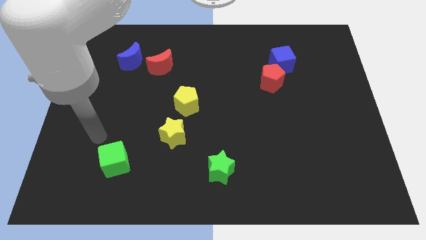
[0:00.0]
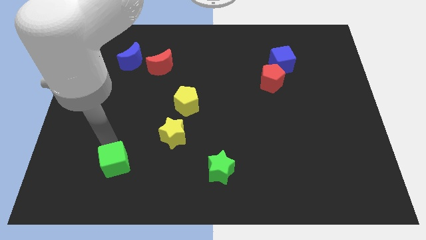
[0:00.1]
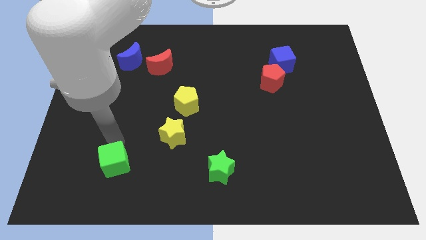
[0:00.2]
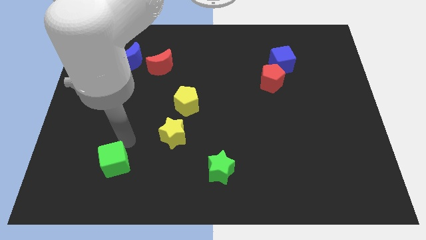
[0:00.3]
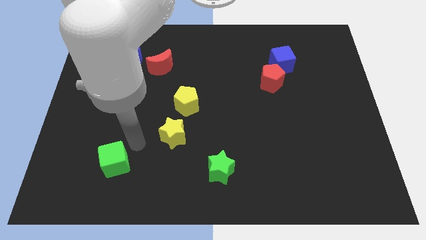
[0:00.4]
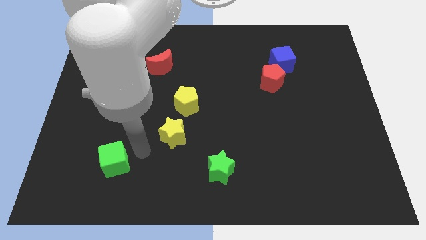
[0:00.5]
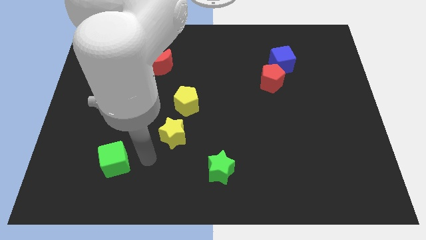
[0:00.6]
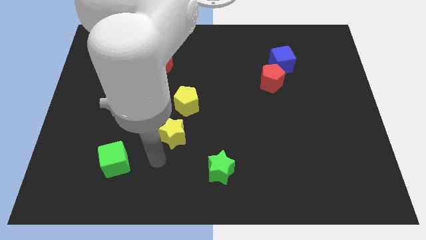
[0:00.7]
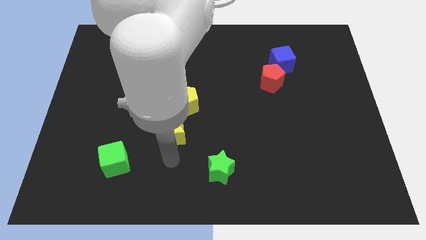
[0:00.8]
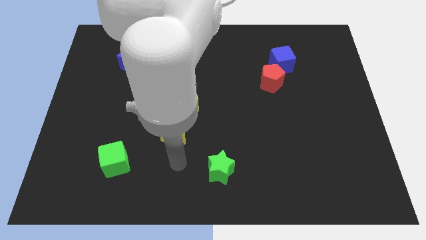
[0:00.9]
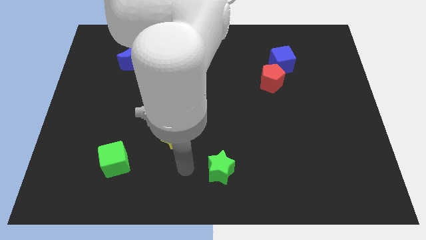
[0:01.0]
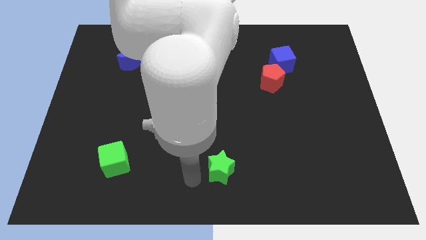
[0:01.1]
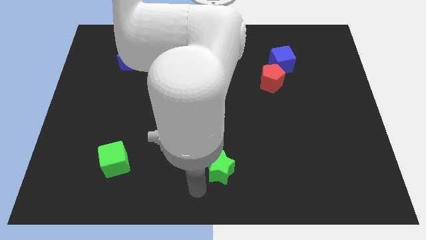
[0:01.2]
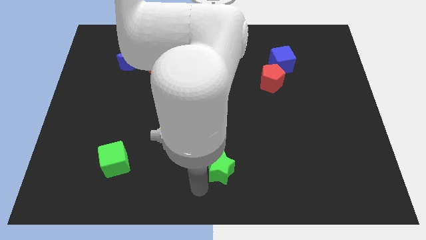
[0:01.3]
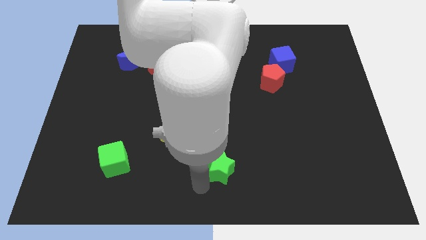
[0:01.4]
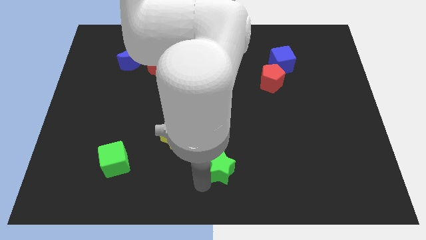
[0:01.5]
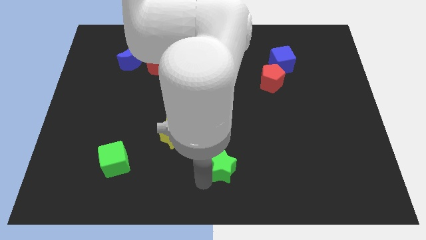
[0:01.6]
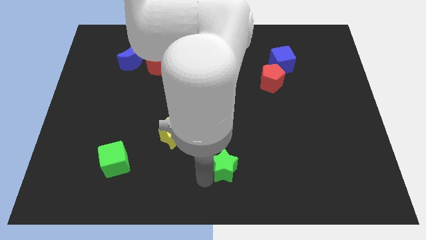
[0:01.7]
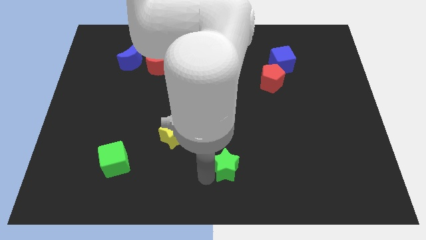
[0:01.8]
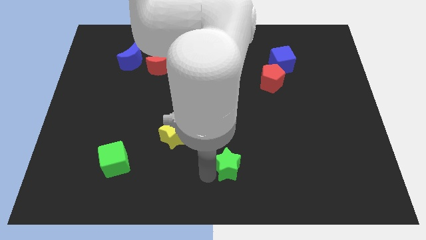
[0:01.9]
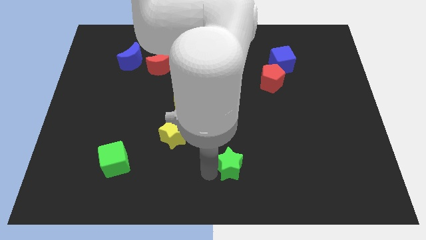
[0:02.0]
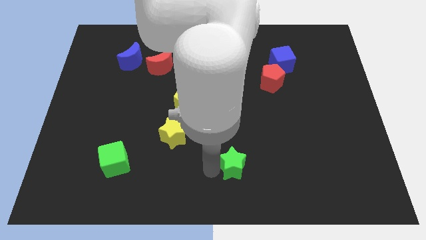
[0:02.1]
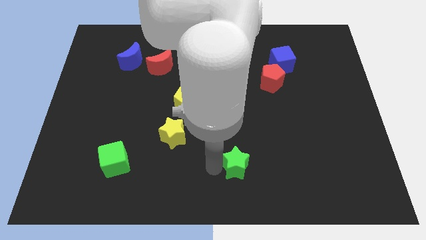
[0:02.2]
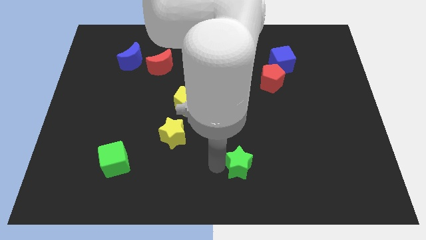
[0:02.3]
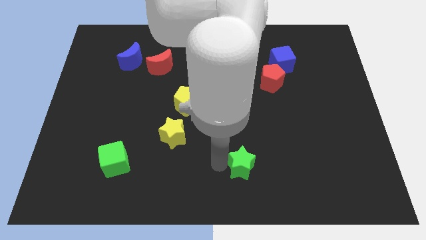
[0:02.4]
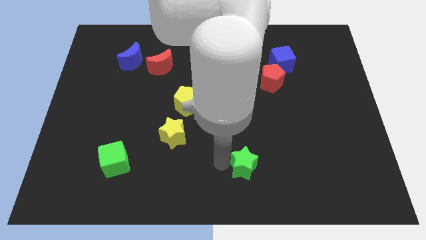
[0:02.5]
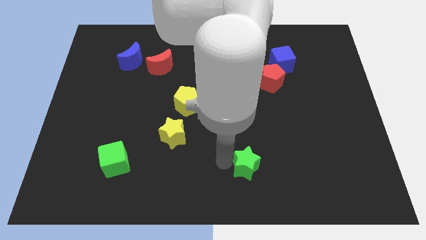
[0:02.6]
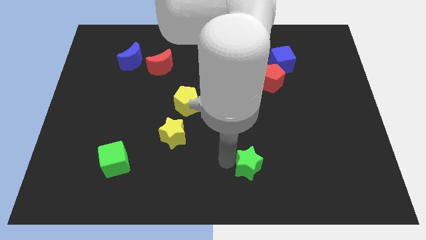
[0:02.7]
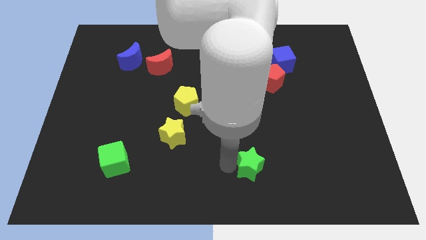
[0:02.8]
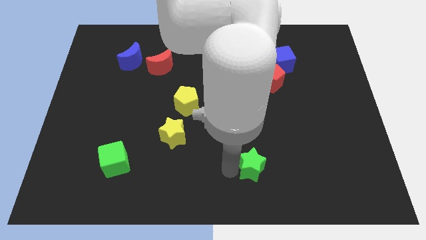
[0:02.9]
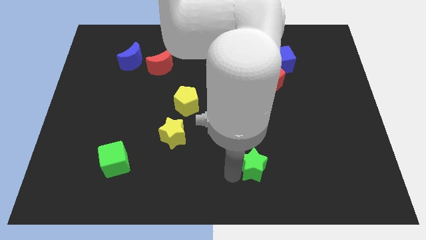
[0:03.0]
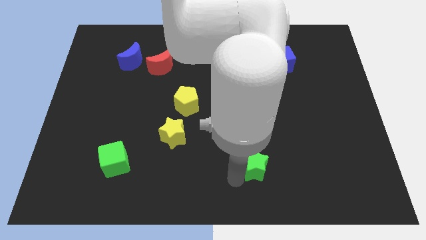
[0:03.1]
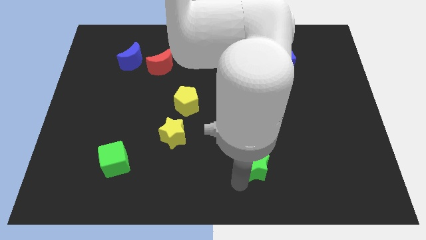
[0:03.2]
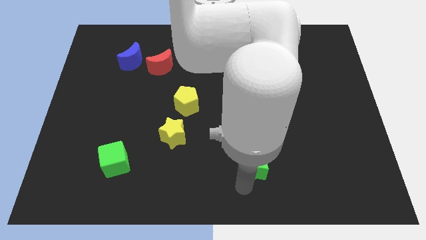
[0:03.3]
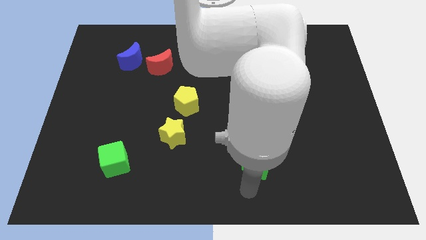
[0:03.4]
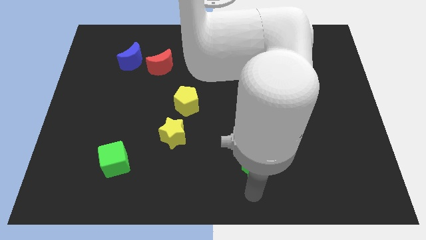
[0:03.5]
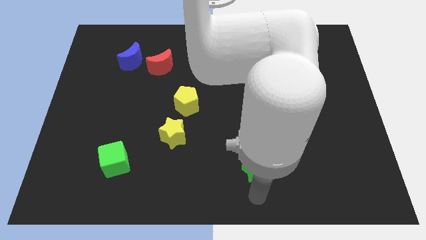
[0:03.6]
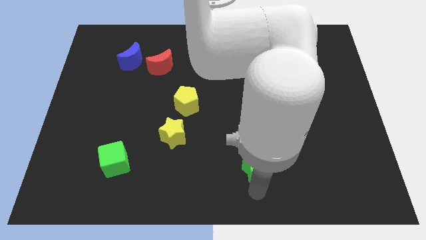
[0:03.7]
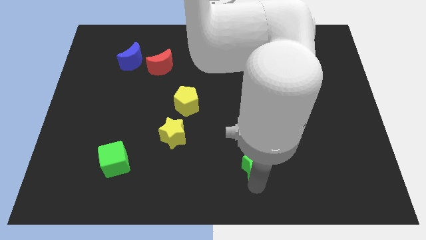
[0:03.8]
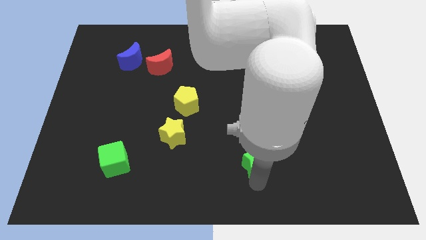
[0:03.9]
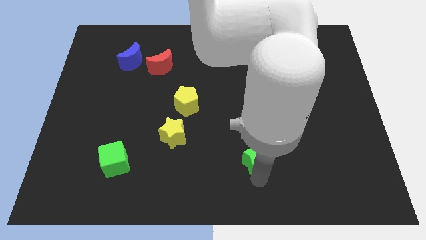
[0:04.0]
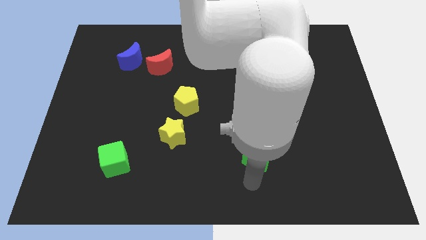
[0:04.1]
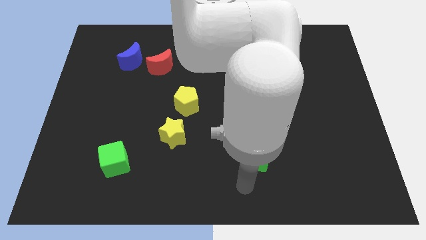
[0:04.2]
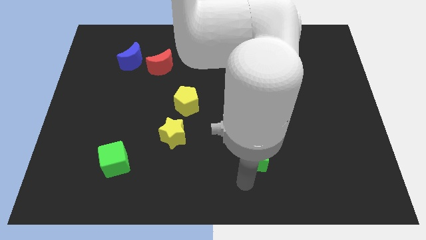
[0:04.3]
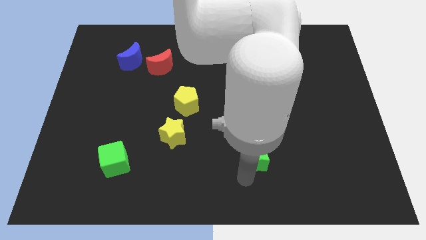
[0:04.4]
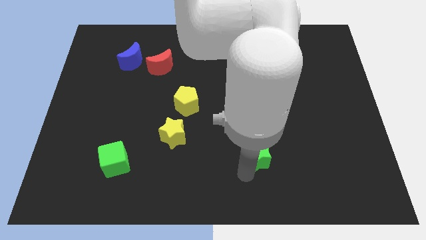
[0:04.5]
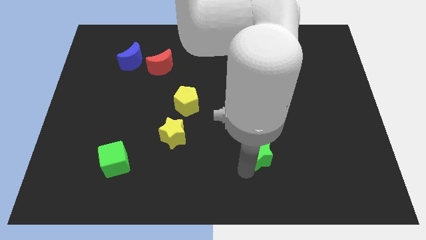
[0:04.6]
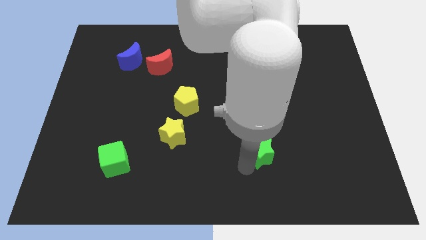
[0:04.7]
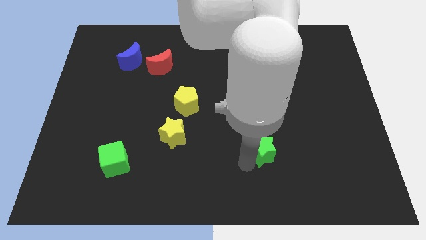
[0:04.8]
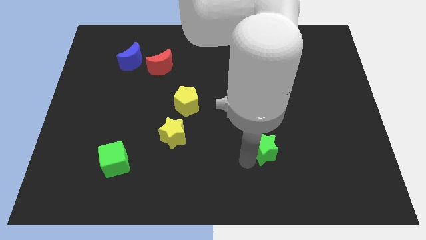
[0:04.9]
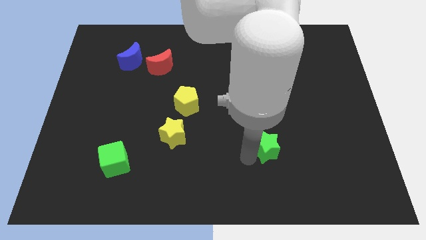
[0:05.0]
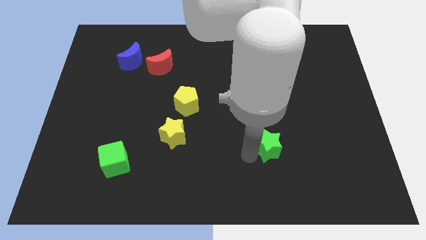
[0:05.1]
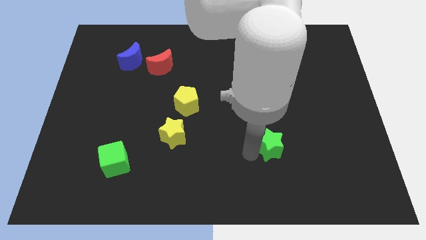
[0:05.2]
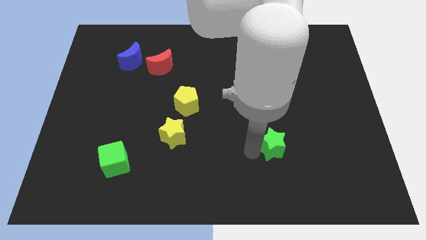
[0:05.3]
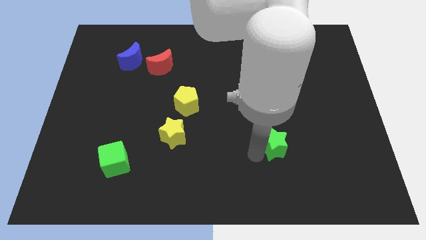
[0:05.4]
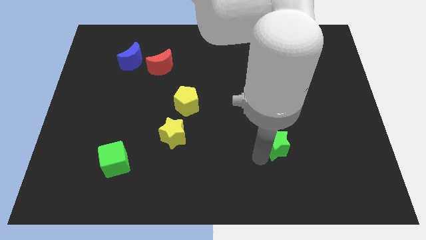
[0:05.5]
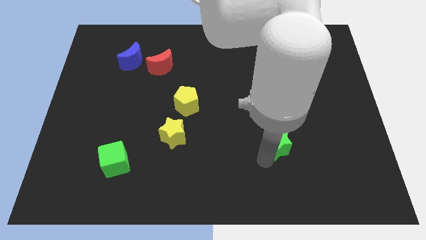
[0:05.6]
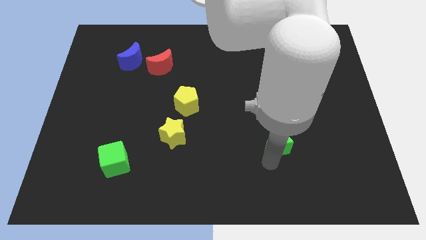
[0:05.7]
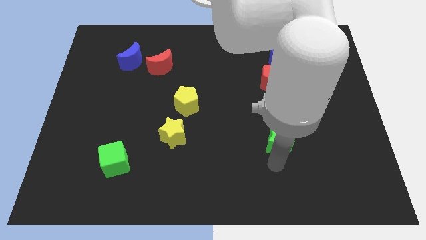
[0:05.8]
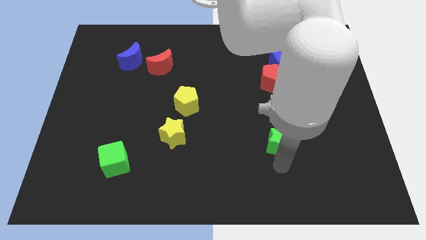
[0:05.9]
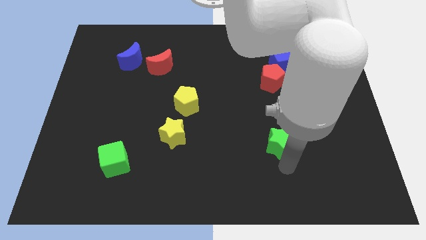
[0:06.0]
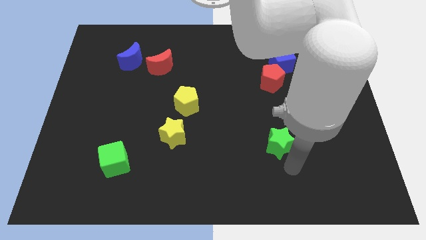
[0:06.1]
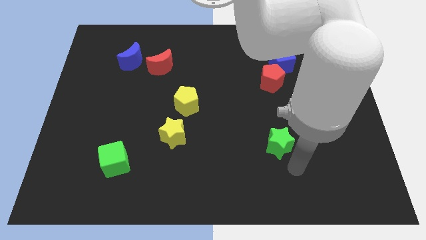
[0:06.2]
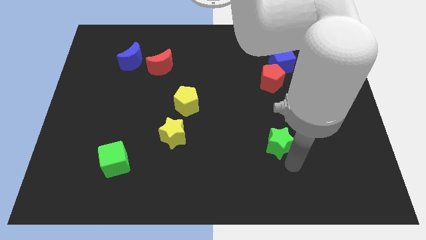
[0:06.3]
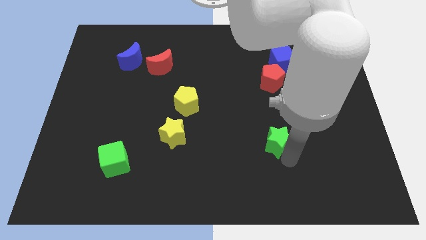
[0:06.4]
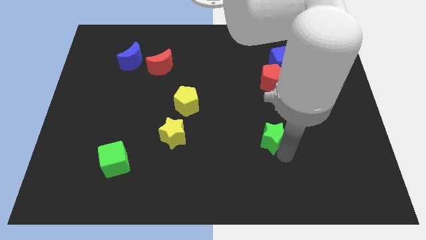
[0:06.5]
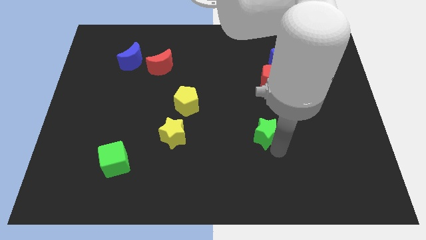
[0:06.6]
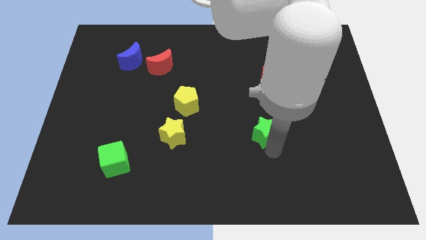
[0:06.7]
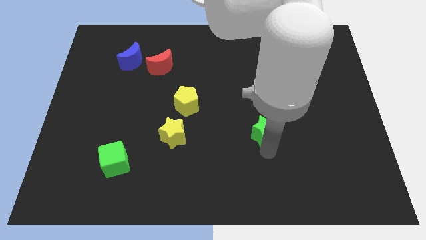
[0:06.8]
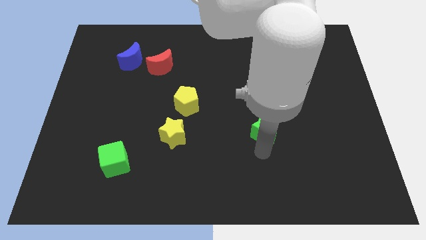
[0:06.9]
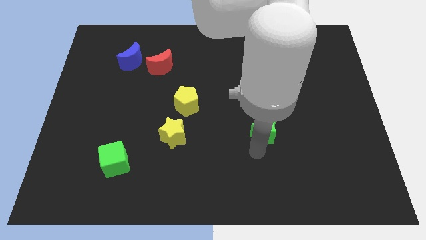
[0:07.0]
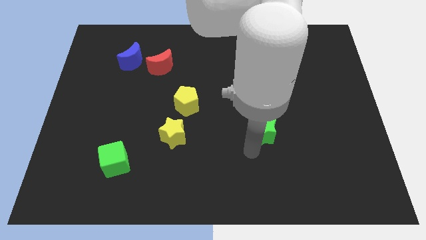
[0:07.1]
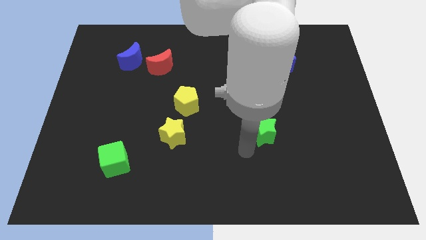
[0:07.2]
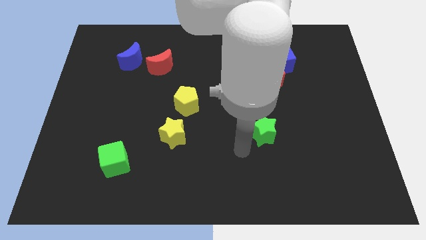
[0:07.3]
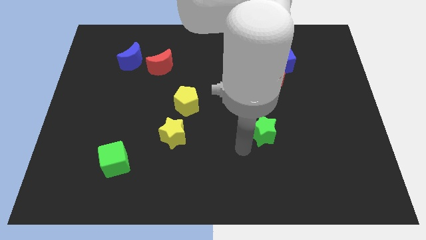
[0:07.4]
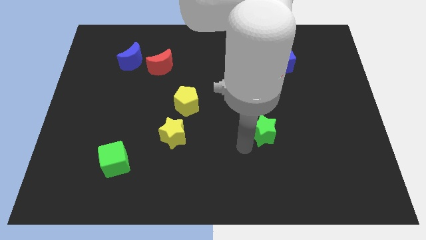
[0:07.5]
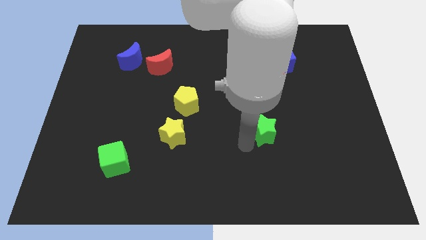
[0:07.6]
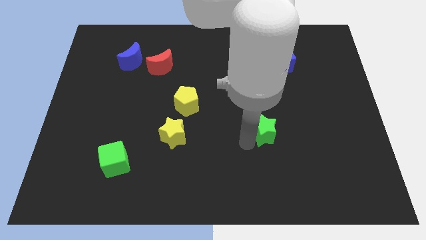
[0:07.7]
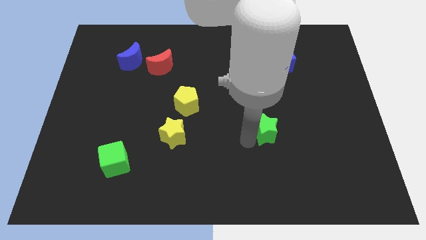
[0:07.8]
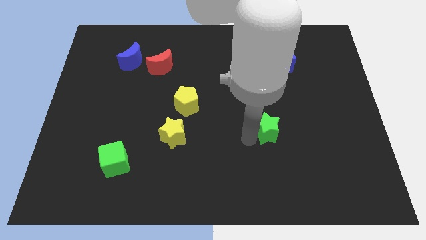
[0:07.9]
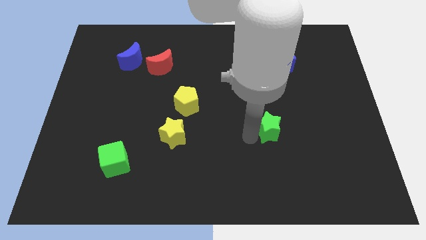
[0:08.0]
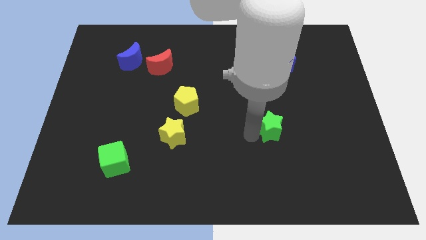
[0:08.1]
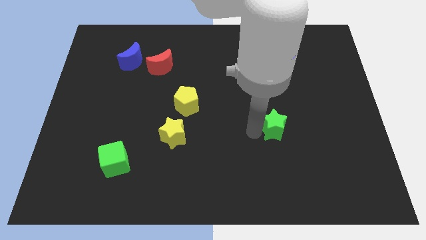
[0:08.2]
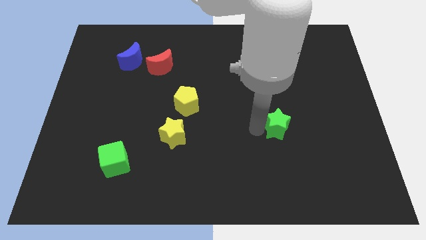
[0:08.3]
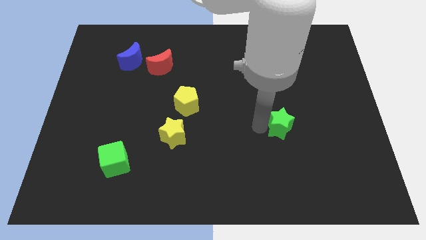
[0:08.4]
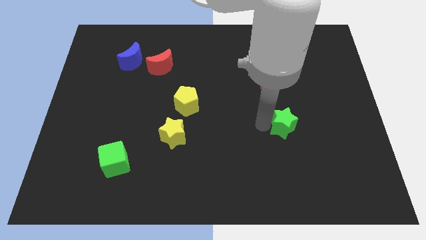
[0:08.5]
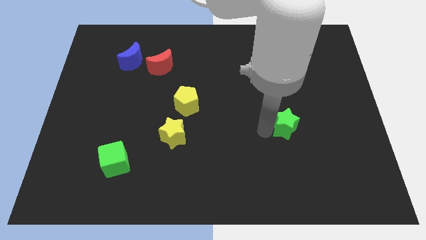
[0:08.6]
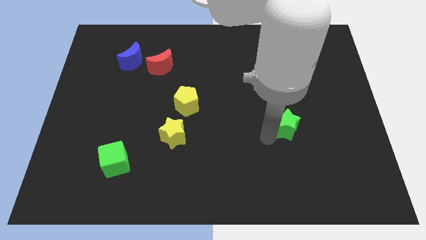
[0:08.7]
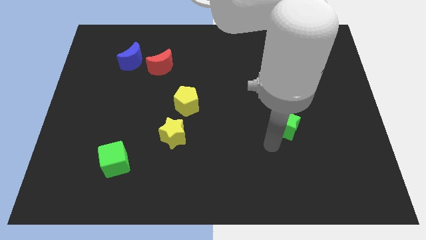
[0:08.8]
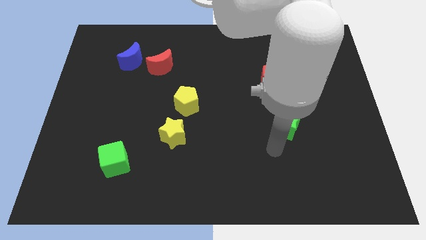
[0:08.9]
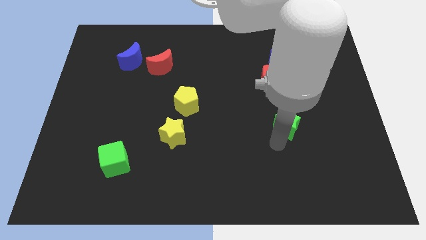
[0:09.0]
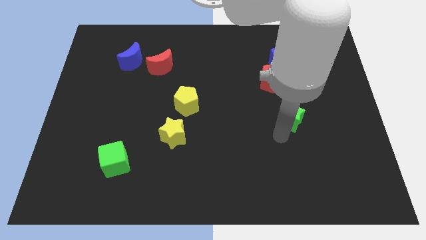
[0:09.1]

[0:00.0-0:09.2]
move the green star upwards and then to the right
